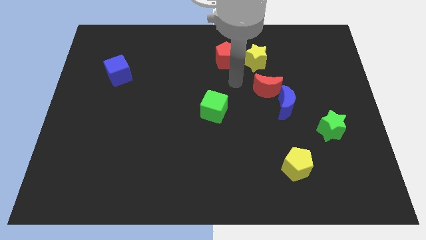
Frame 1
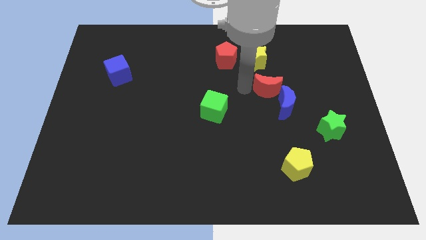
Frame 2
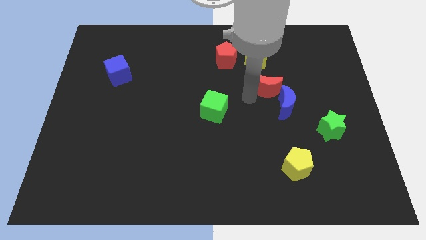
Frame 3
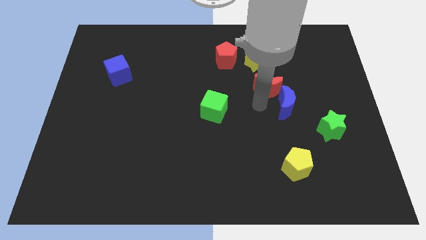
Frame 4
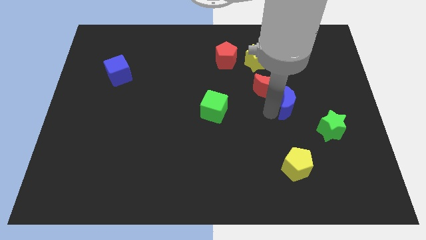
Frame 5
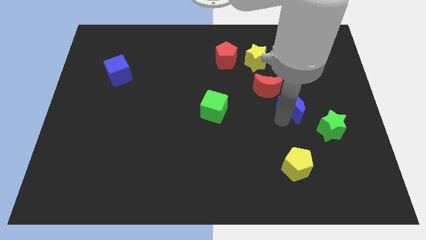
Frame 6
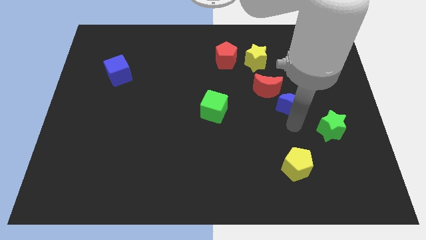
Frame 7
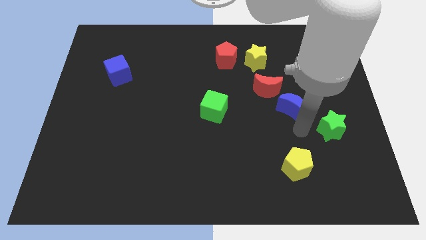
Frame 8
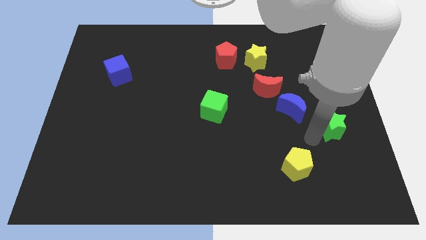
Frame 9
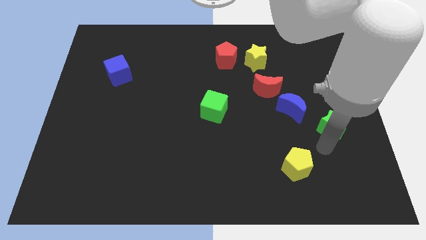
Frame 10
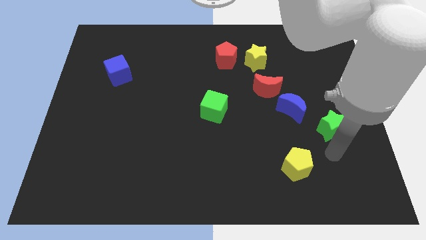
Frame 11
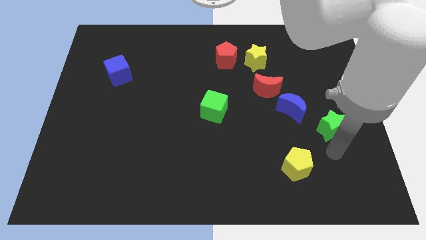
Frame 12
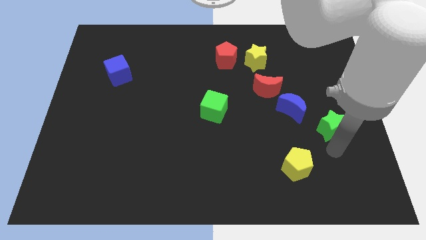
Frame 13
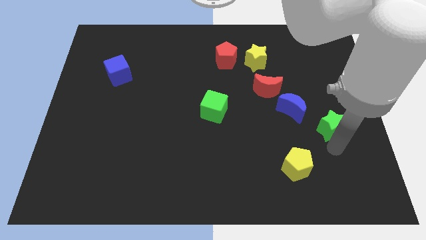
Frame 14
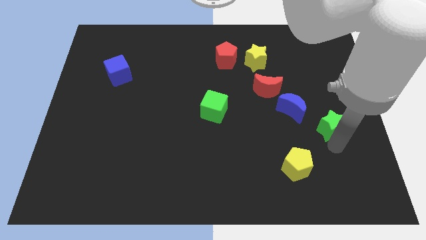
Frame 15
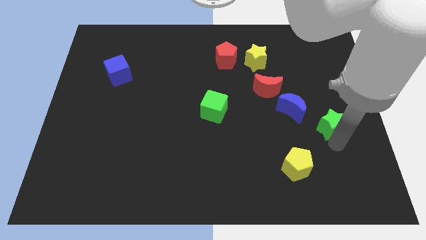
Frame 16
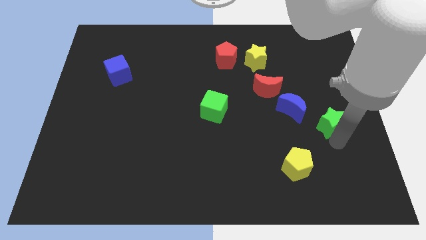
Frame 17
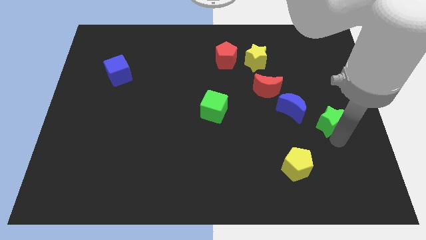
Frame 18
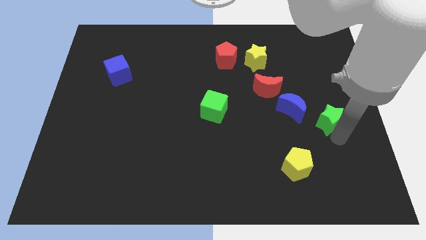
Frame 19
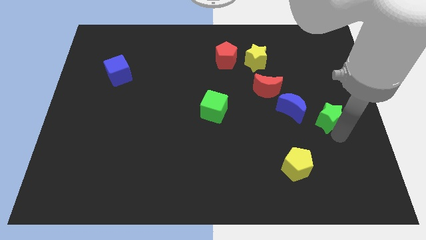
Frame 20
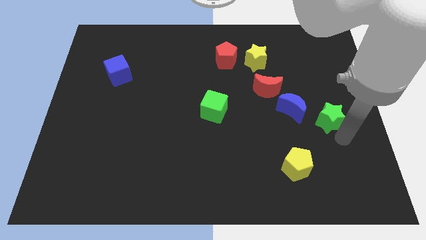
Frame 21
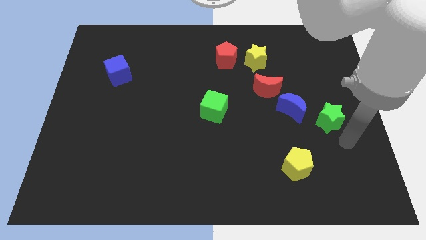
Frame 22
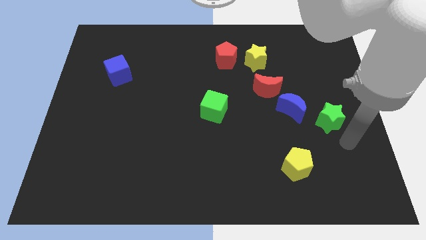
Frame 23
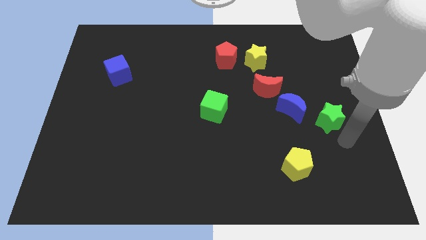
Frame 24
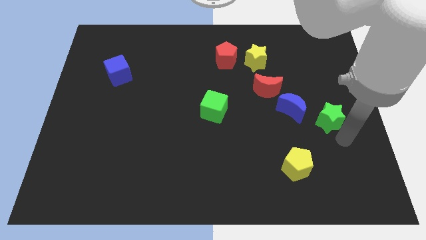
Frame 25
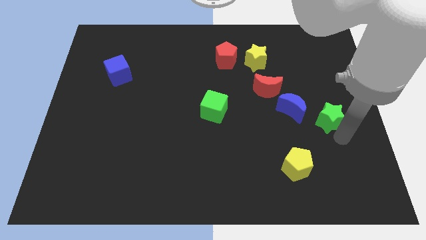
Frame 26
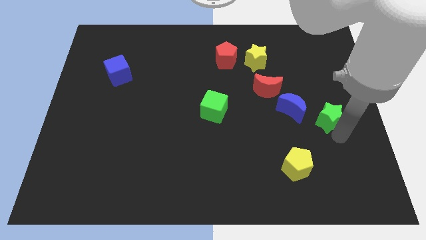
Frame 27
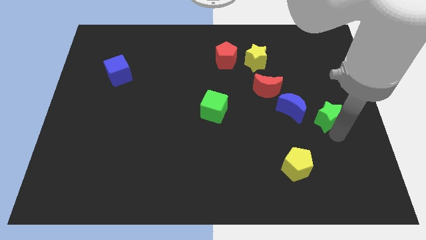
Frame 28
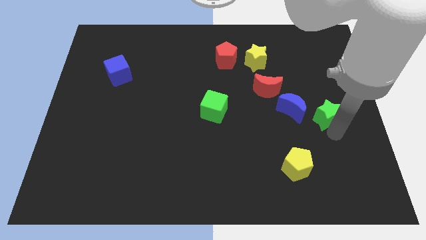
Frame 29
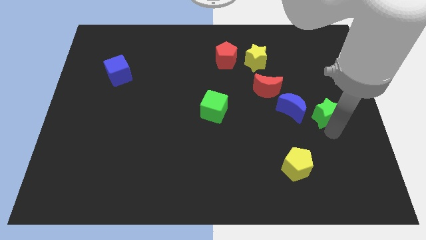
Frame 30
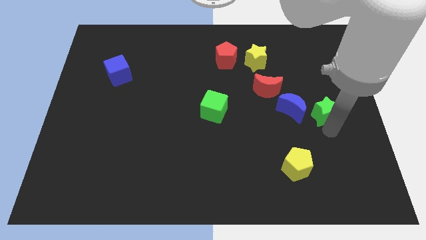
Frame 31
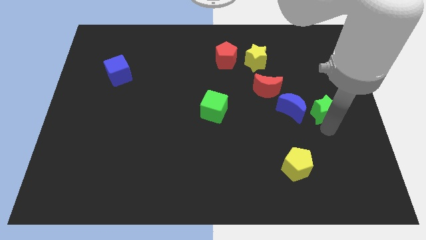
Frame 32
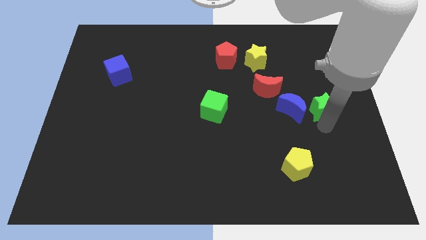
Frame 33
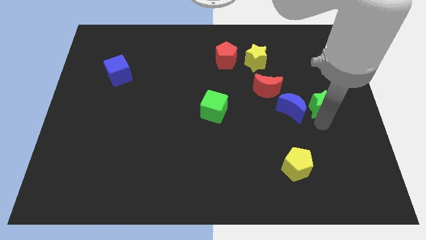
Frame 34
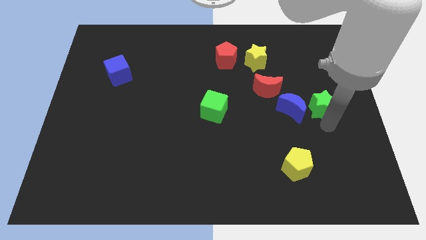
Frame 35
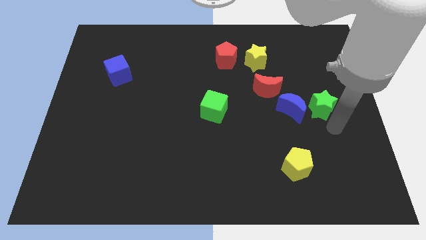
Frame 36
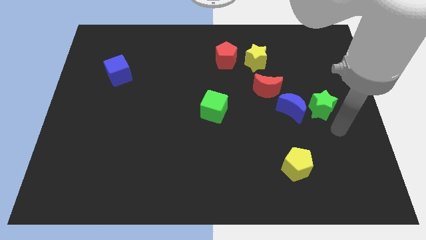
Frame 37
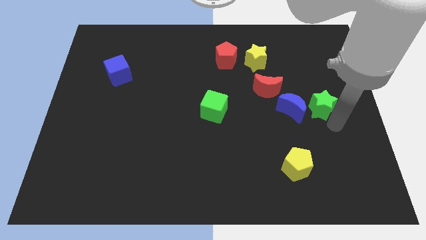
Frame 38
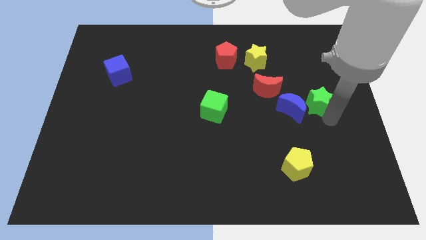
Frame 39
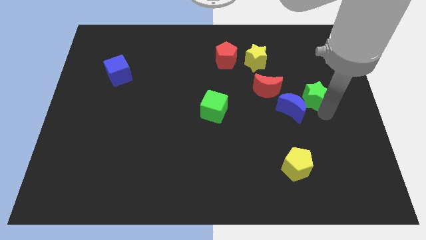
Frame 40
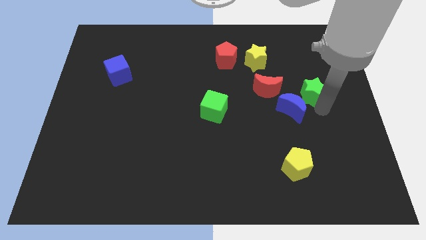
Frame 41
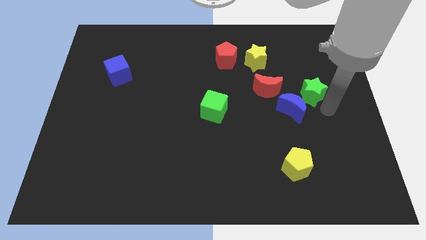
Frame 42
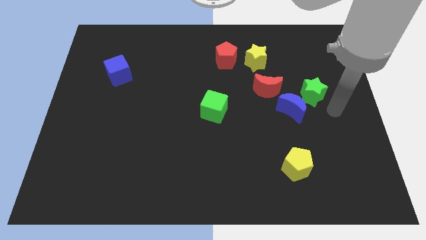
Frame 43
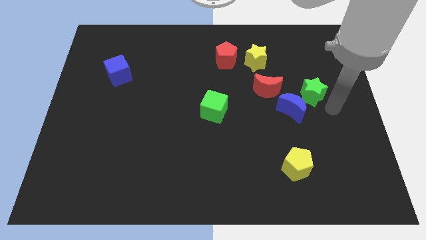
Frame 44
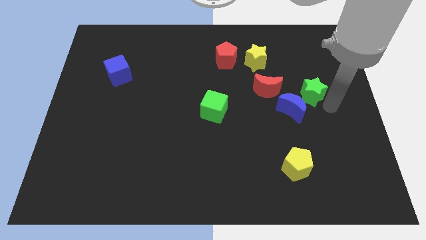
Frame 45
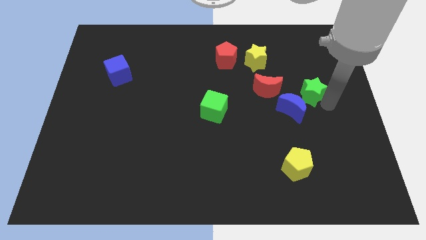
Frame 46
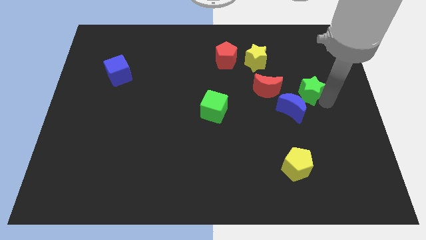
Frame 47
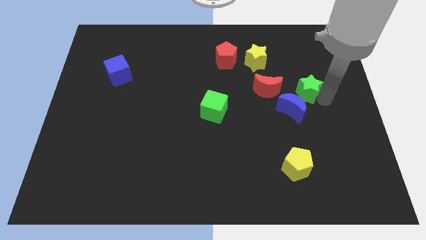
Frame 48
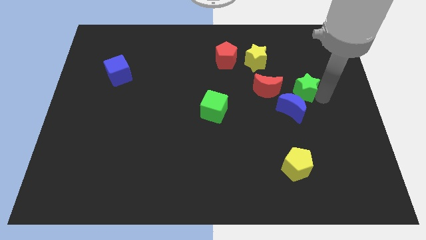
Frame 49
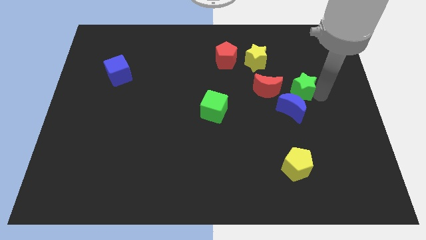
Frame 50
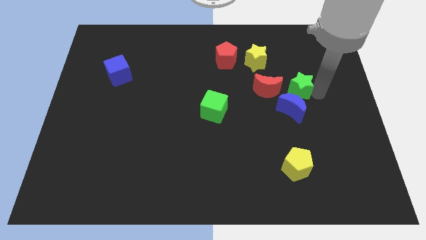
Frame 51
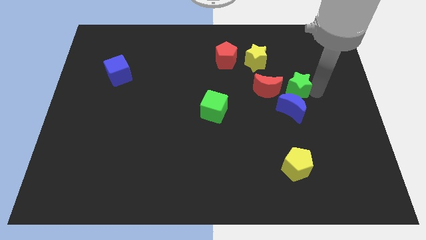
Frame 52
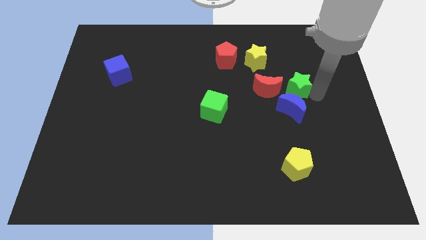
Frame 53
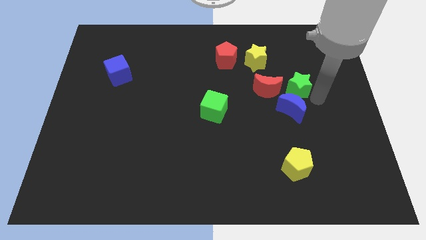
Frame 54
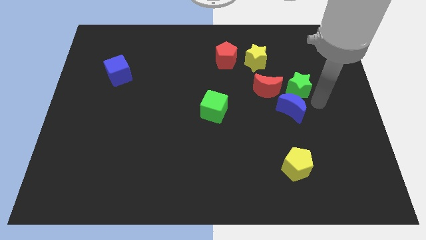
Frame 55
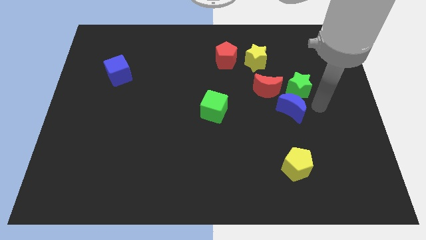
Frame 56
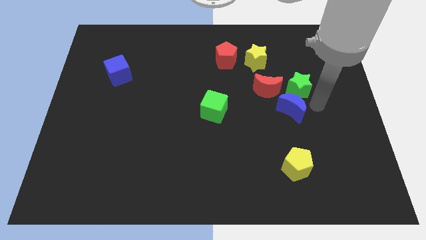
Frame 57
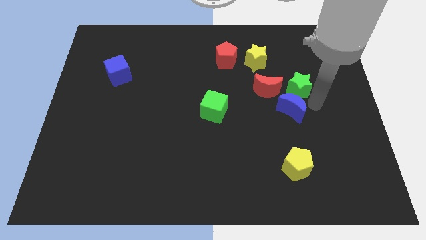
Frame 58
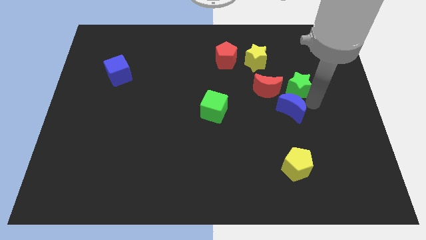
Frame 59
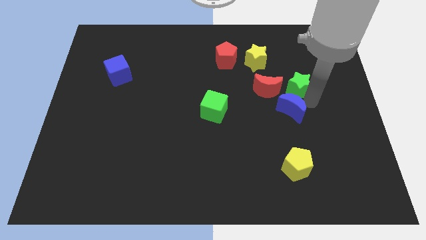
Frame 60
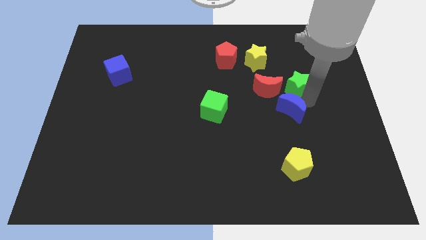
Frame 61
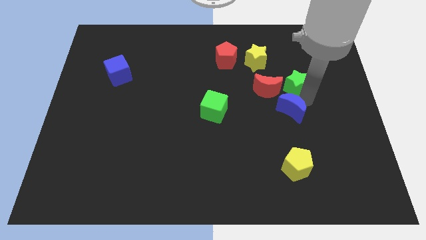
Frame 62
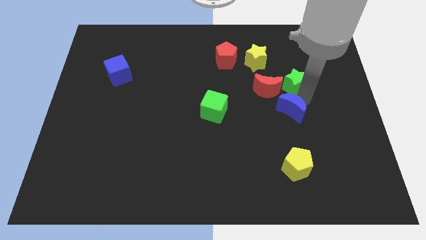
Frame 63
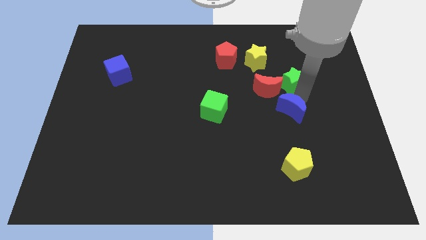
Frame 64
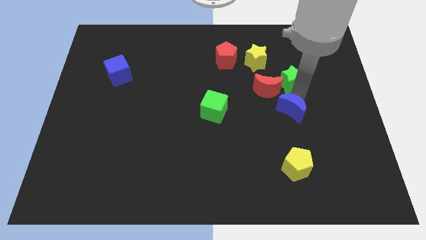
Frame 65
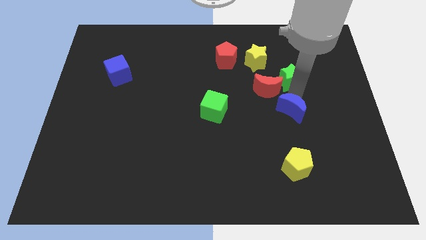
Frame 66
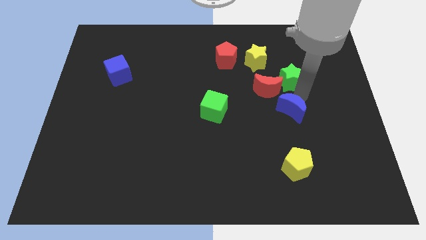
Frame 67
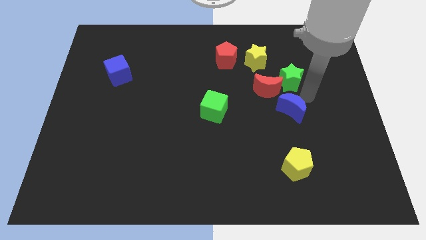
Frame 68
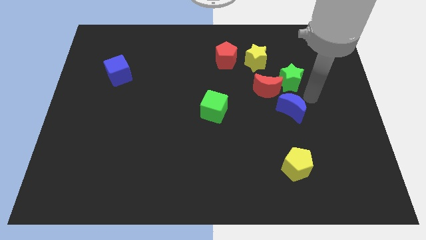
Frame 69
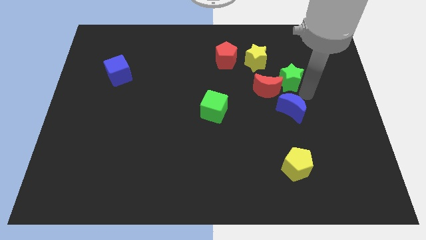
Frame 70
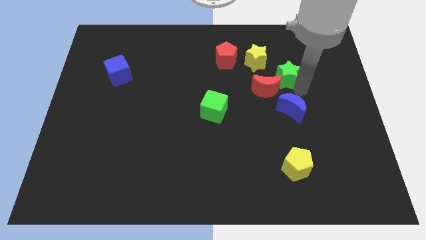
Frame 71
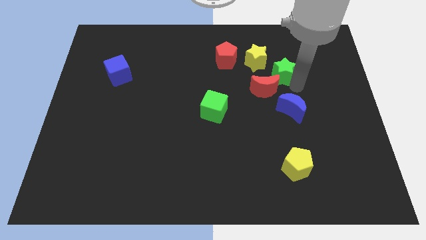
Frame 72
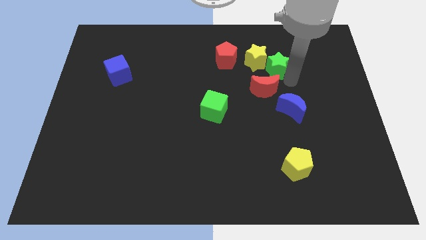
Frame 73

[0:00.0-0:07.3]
push the green star next to the yellow star
